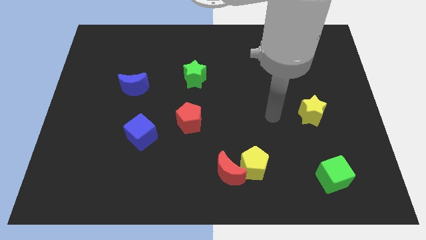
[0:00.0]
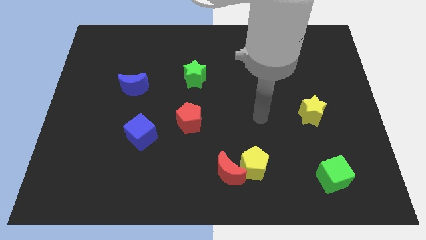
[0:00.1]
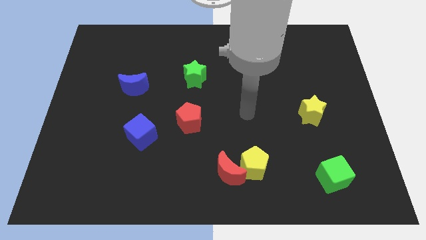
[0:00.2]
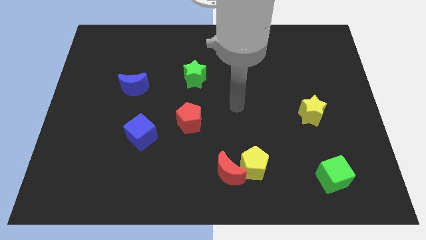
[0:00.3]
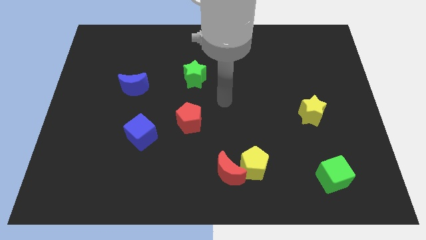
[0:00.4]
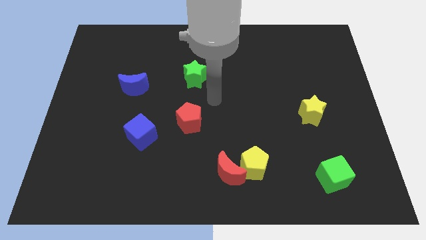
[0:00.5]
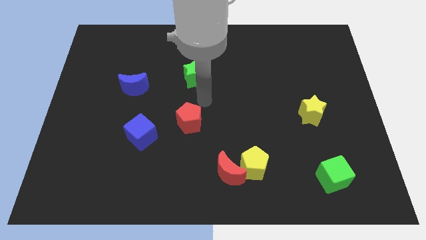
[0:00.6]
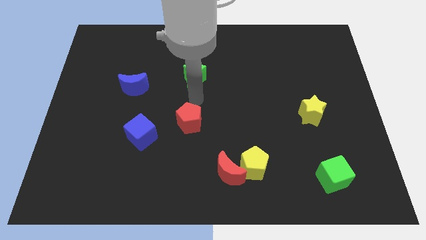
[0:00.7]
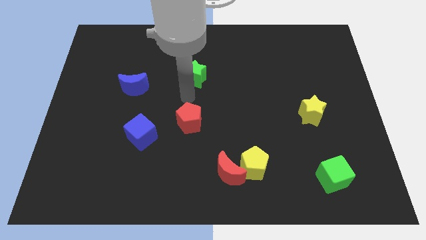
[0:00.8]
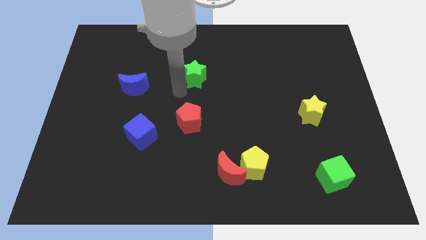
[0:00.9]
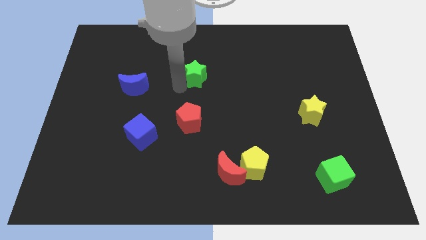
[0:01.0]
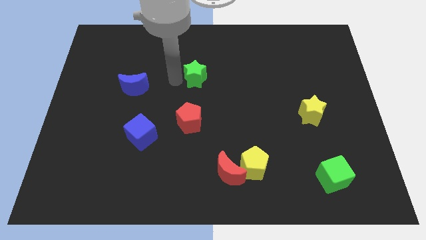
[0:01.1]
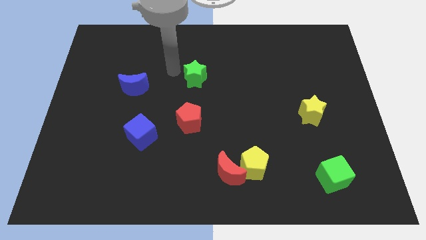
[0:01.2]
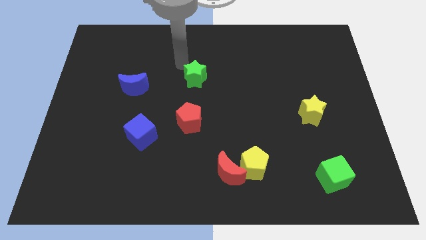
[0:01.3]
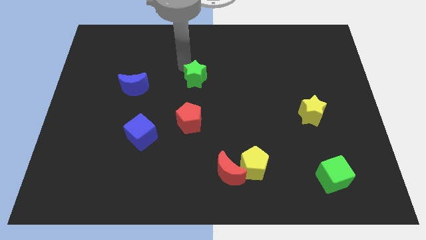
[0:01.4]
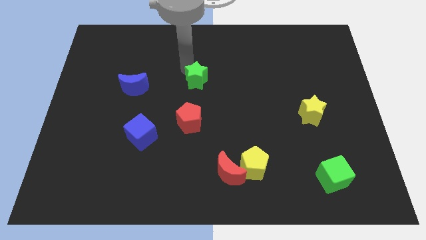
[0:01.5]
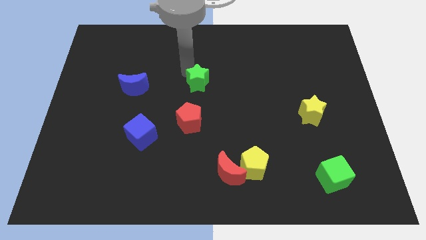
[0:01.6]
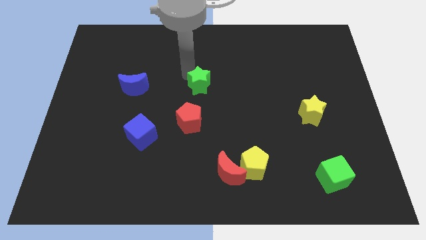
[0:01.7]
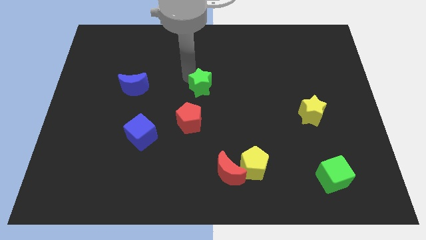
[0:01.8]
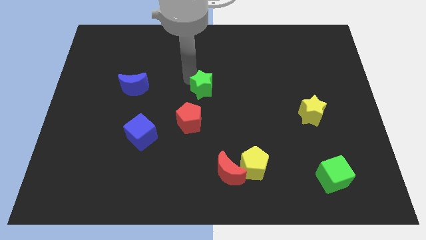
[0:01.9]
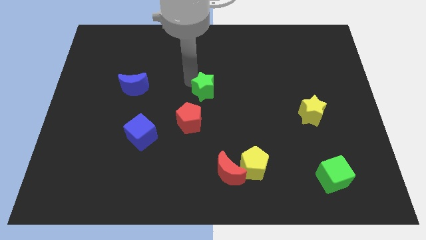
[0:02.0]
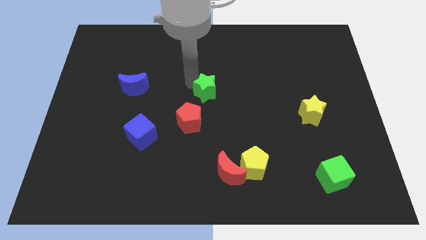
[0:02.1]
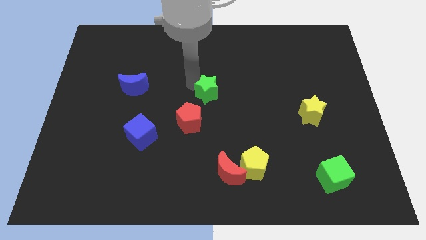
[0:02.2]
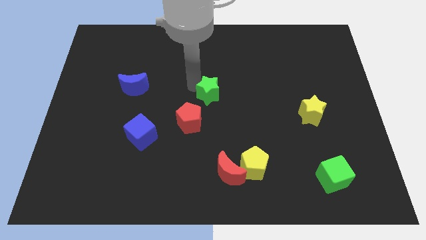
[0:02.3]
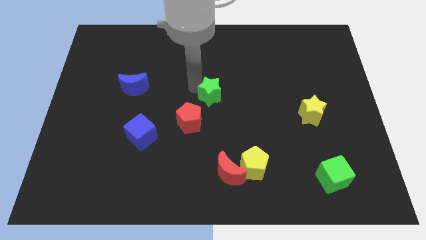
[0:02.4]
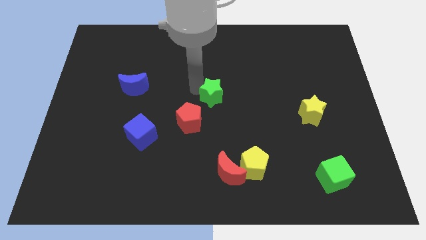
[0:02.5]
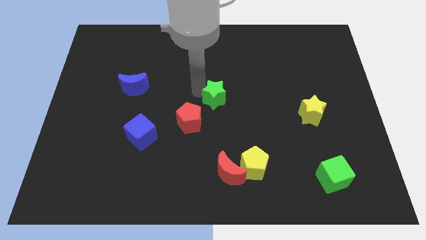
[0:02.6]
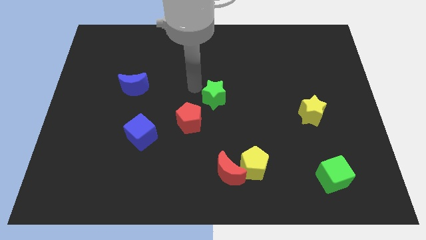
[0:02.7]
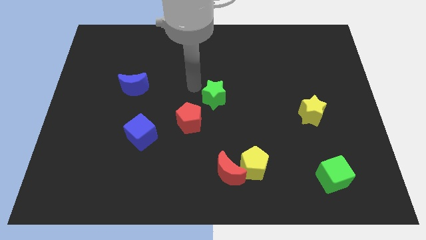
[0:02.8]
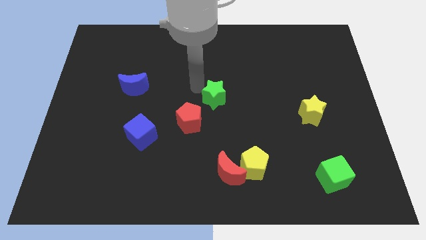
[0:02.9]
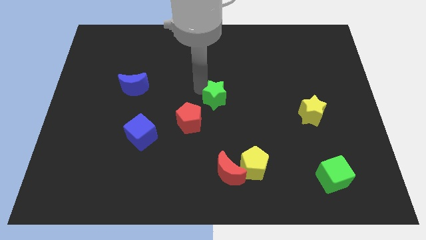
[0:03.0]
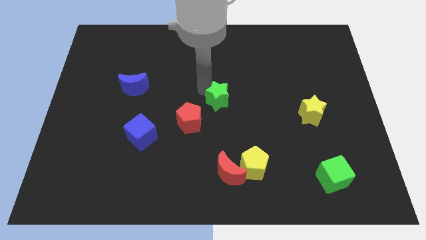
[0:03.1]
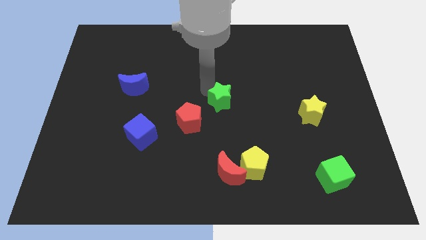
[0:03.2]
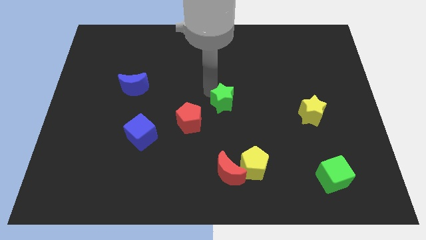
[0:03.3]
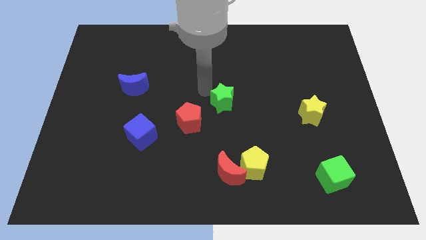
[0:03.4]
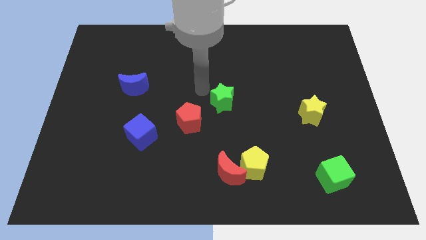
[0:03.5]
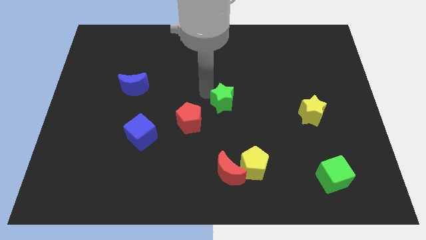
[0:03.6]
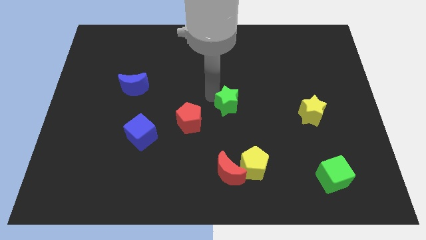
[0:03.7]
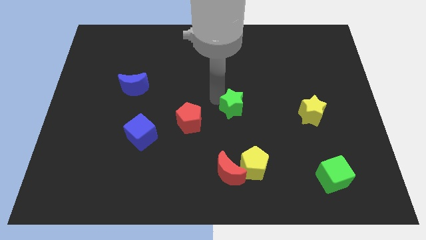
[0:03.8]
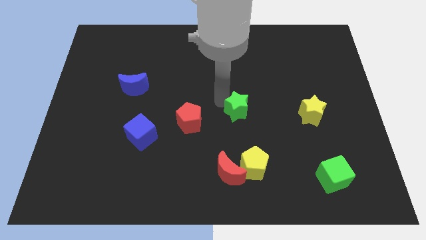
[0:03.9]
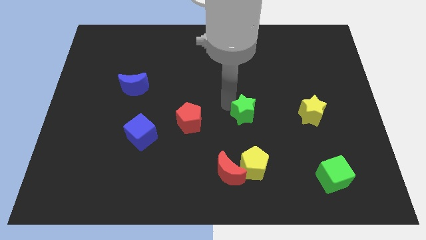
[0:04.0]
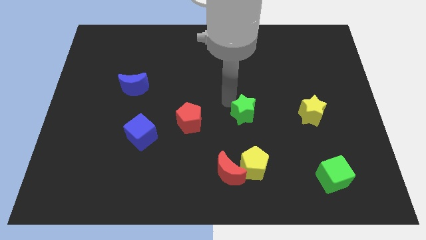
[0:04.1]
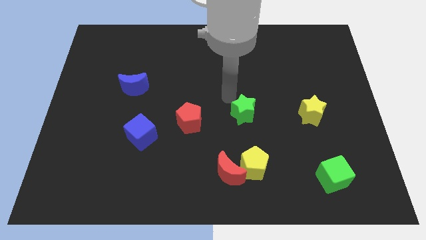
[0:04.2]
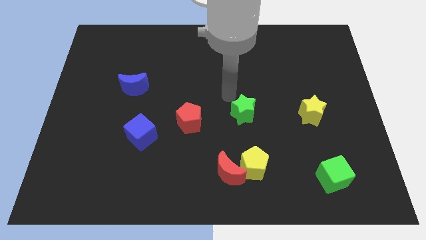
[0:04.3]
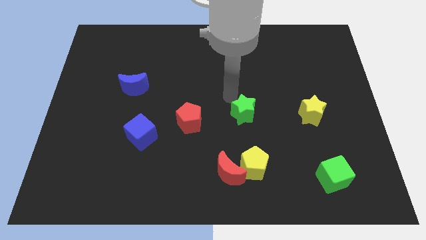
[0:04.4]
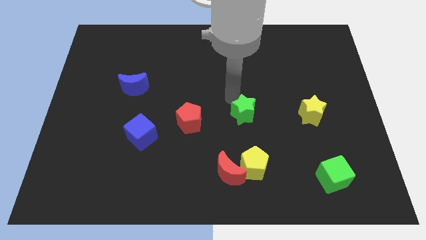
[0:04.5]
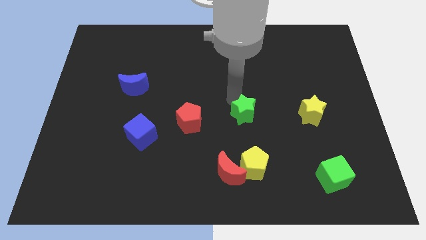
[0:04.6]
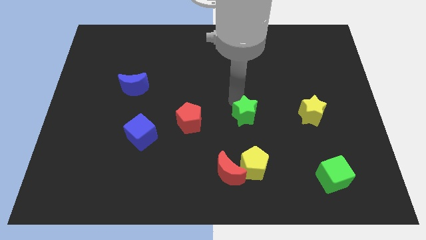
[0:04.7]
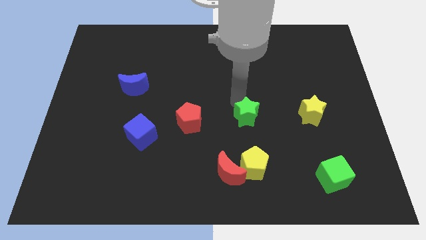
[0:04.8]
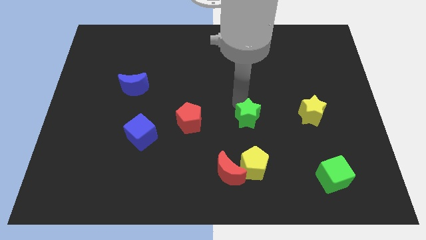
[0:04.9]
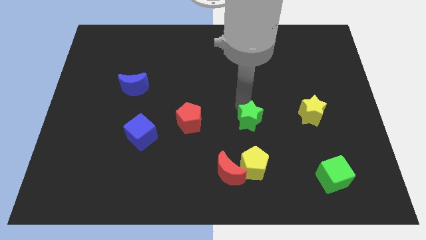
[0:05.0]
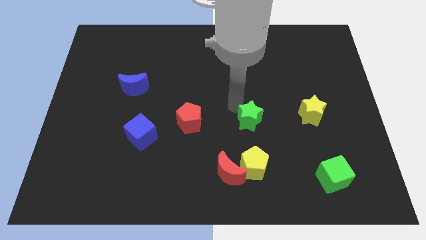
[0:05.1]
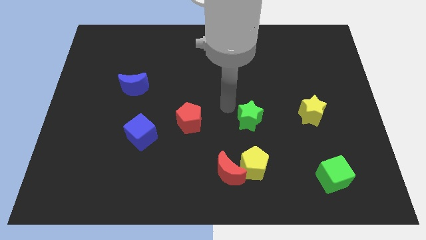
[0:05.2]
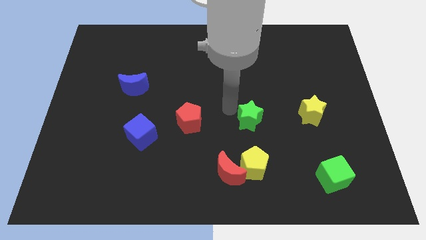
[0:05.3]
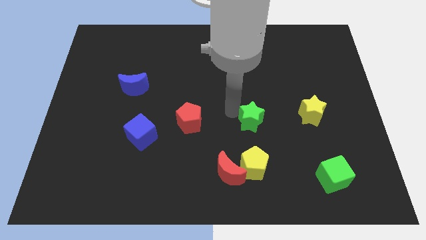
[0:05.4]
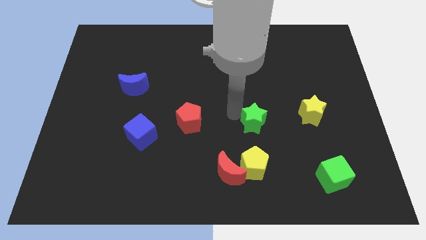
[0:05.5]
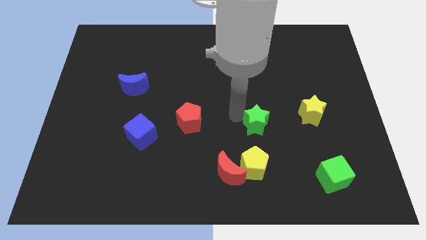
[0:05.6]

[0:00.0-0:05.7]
push the green star diagonally downwards and right

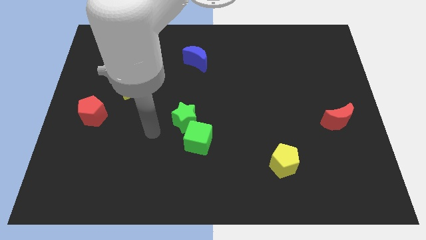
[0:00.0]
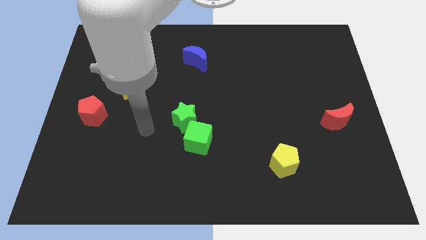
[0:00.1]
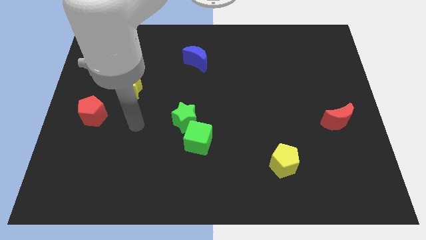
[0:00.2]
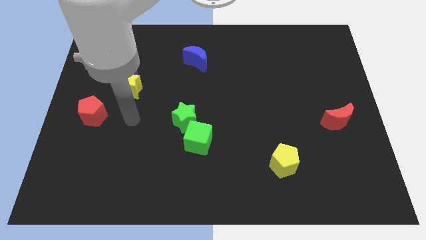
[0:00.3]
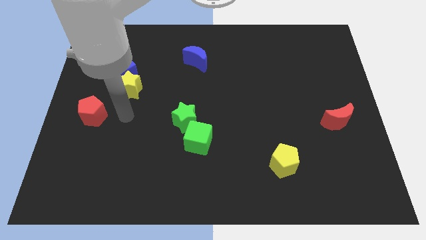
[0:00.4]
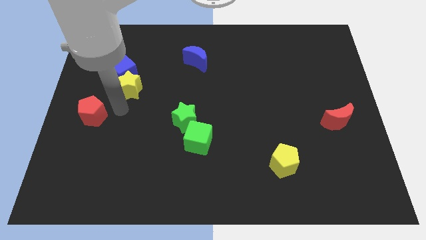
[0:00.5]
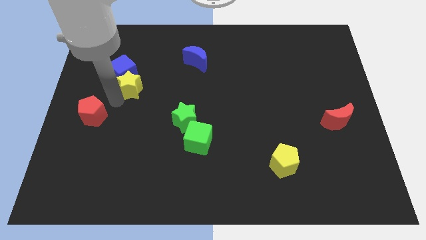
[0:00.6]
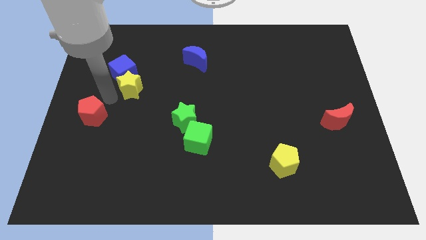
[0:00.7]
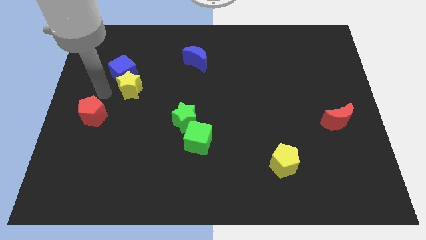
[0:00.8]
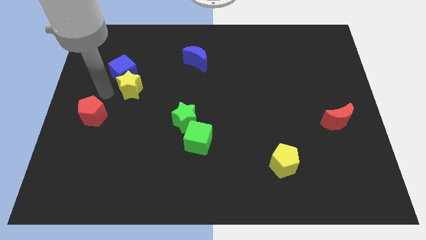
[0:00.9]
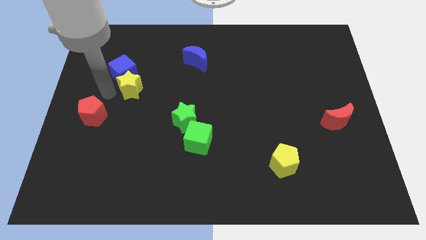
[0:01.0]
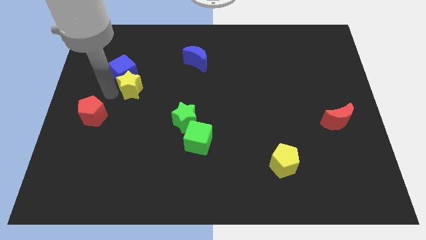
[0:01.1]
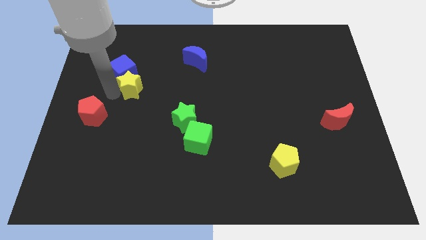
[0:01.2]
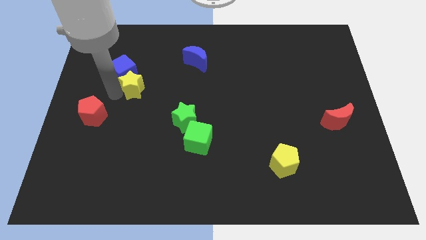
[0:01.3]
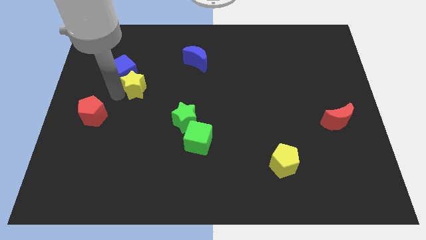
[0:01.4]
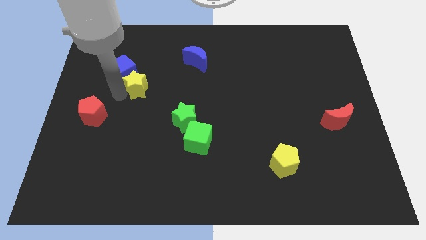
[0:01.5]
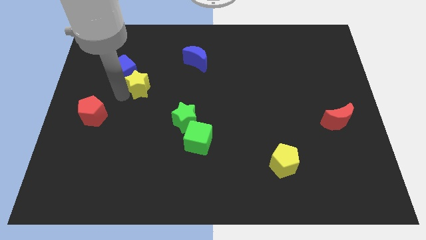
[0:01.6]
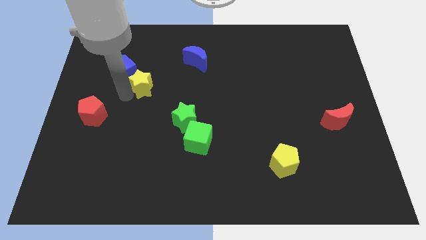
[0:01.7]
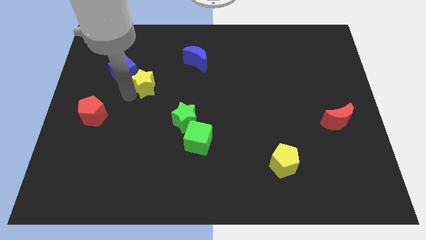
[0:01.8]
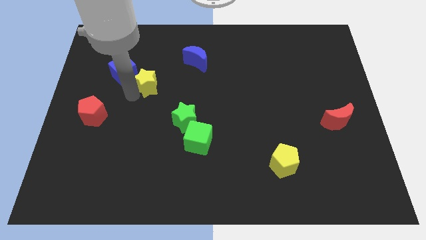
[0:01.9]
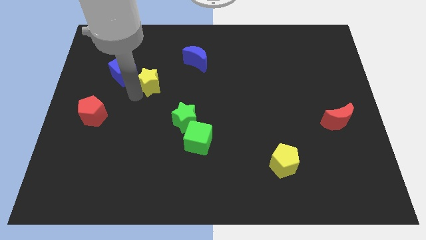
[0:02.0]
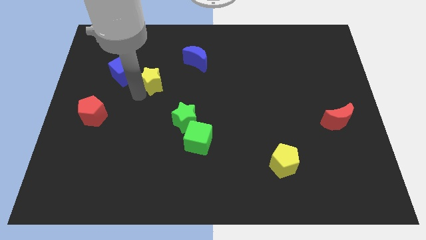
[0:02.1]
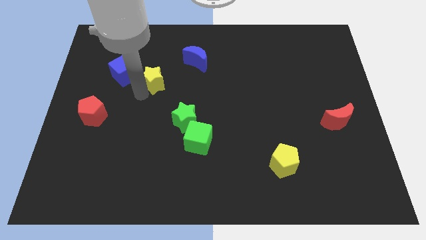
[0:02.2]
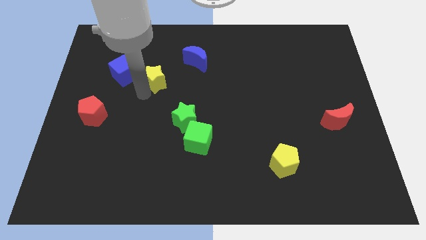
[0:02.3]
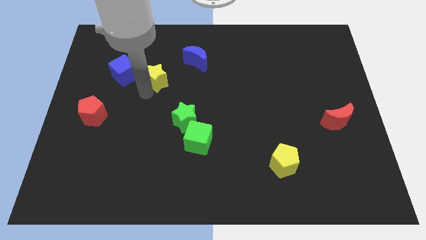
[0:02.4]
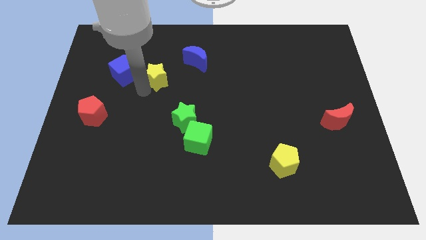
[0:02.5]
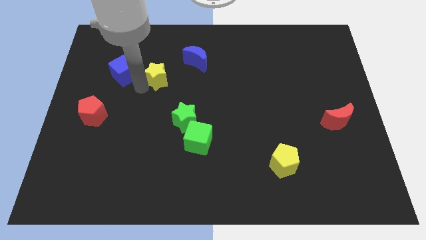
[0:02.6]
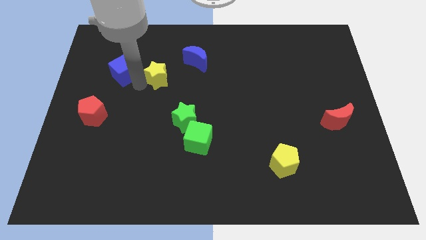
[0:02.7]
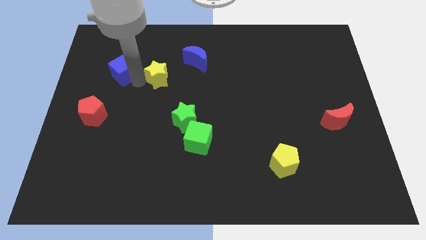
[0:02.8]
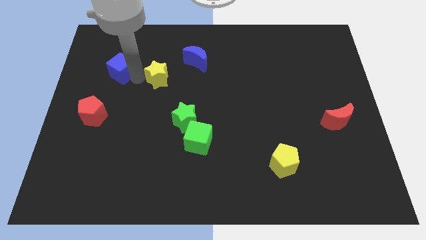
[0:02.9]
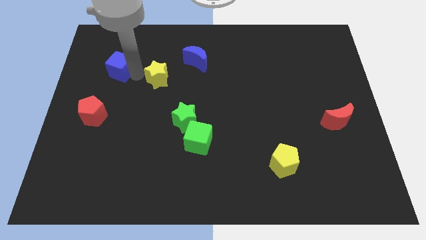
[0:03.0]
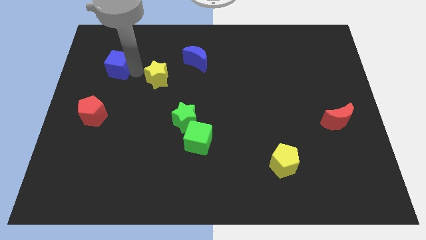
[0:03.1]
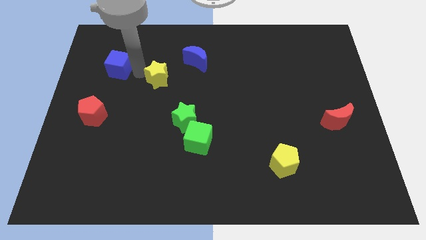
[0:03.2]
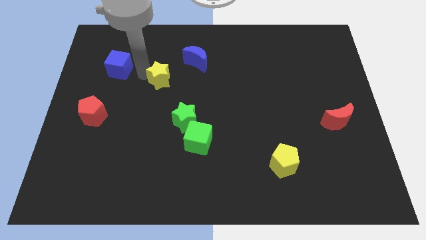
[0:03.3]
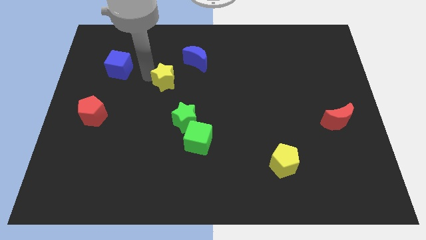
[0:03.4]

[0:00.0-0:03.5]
push the yellow star right somewhat
